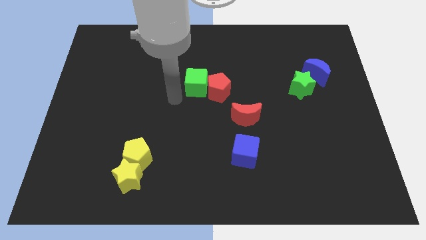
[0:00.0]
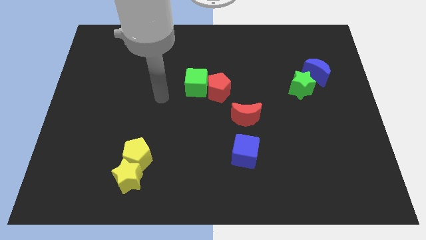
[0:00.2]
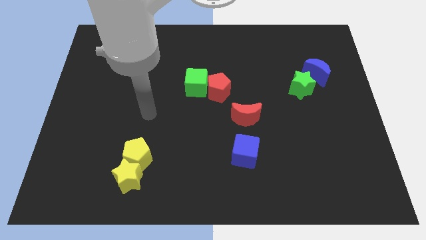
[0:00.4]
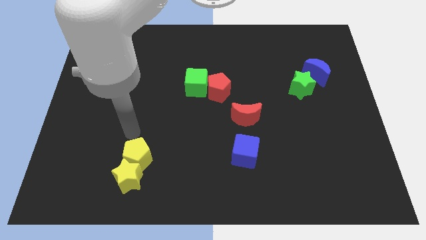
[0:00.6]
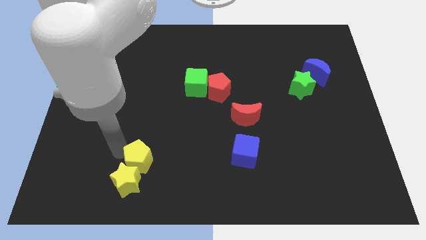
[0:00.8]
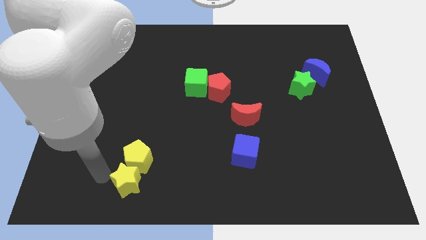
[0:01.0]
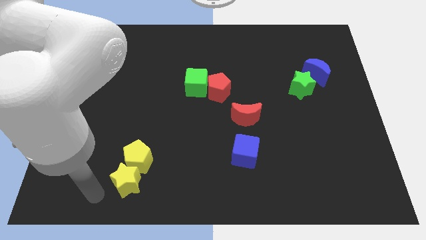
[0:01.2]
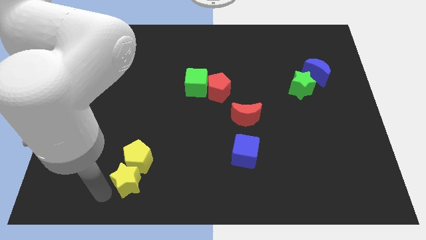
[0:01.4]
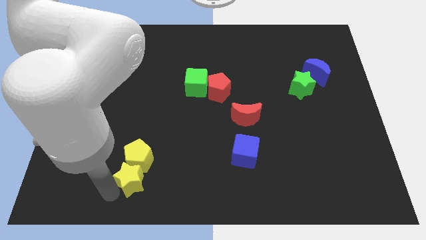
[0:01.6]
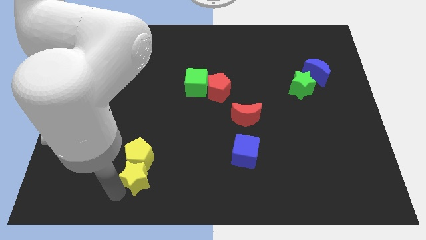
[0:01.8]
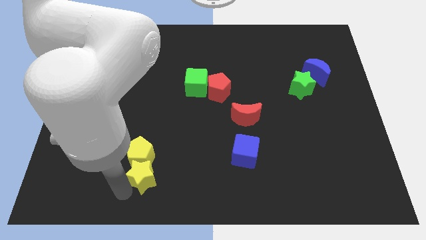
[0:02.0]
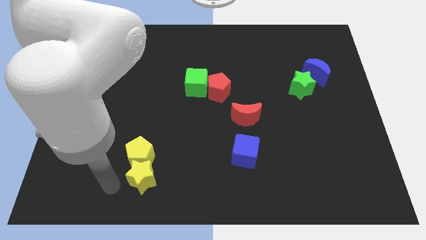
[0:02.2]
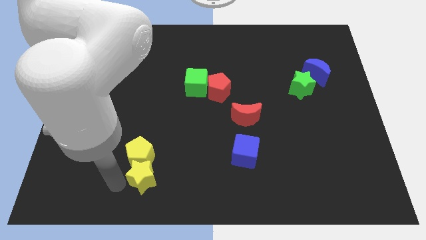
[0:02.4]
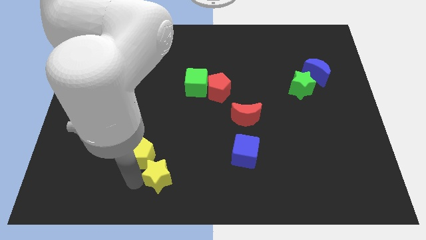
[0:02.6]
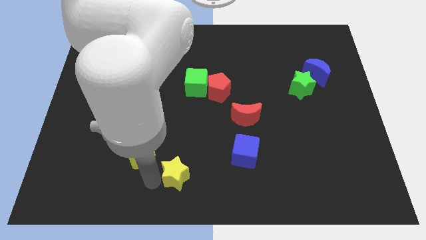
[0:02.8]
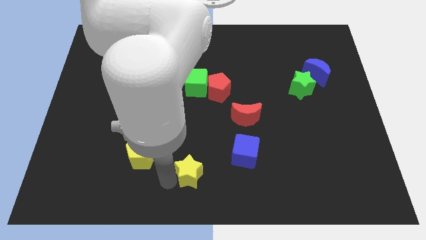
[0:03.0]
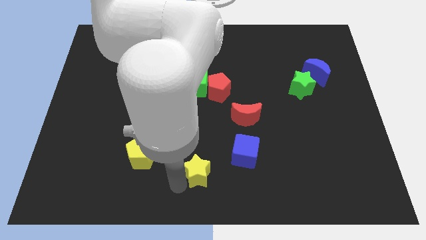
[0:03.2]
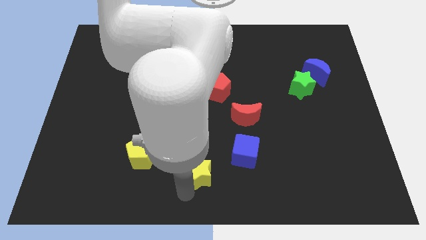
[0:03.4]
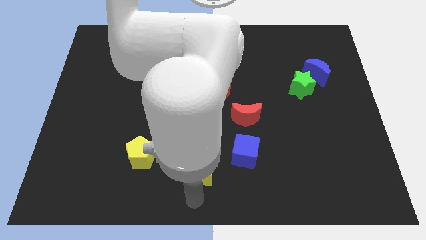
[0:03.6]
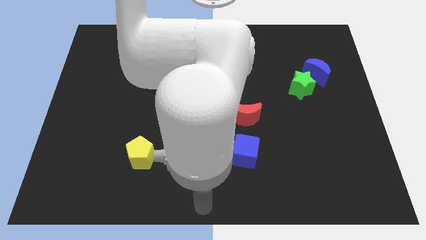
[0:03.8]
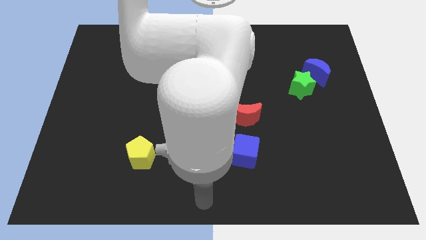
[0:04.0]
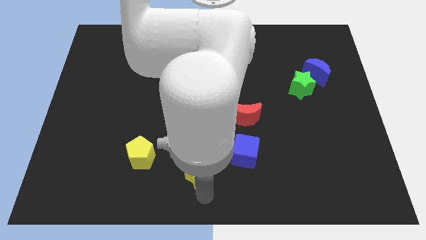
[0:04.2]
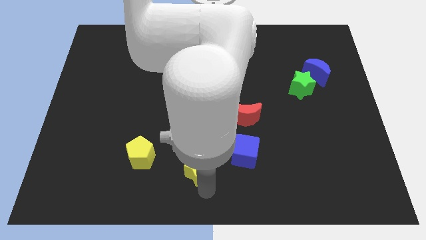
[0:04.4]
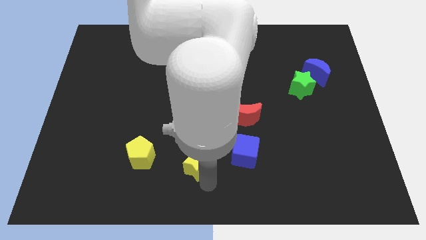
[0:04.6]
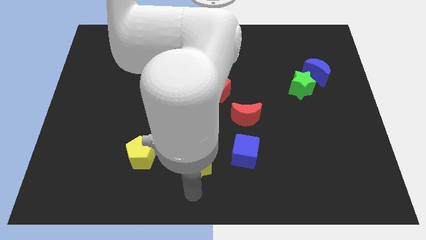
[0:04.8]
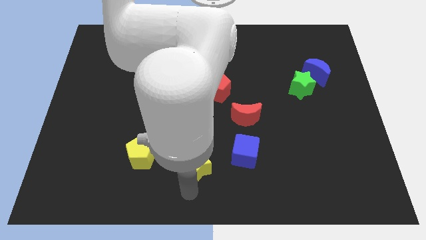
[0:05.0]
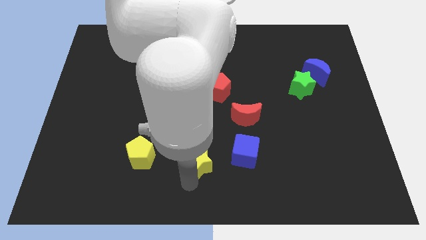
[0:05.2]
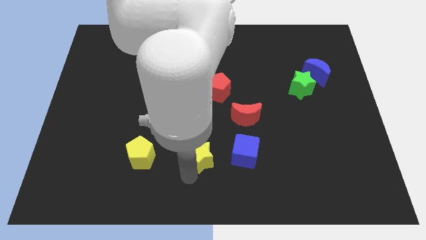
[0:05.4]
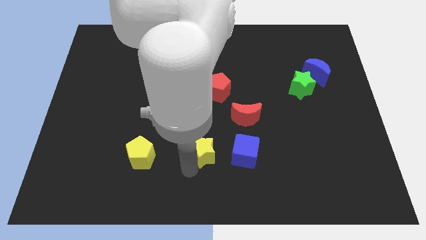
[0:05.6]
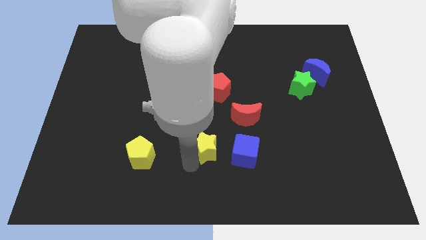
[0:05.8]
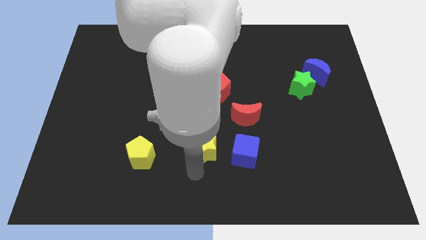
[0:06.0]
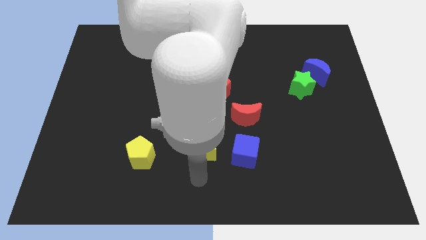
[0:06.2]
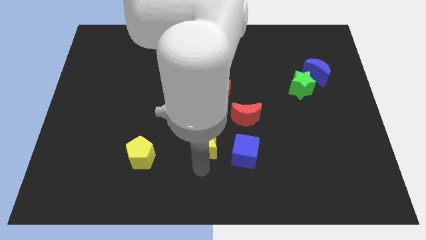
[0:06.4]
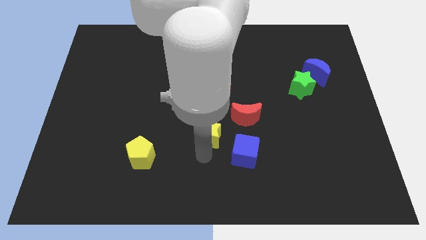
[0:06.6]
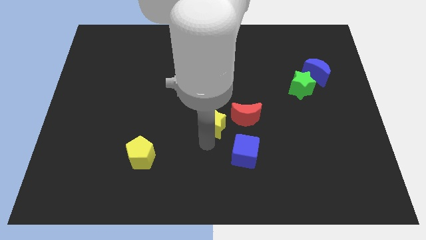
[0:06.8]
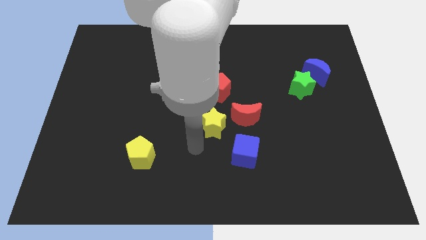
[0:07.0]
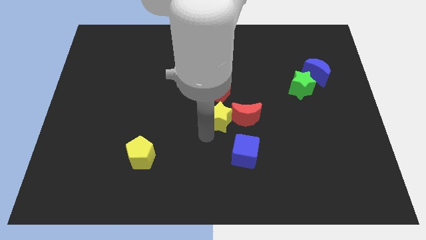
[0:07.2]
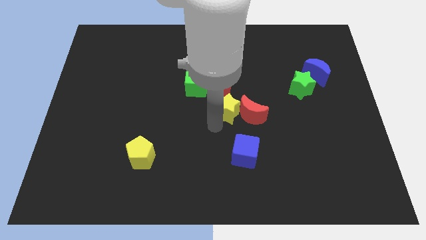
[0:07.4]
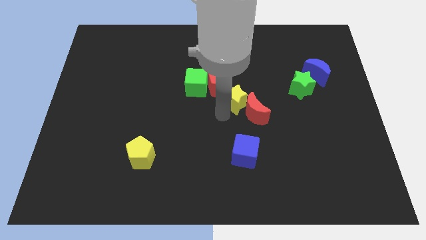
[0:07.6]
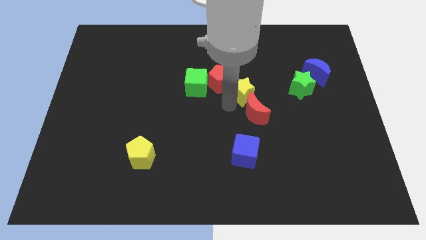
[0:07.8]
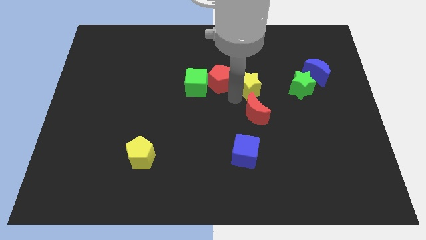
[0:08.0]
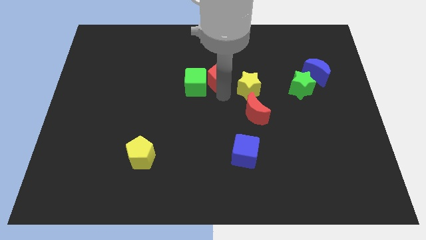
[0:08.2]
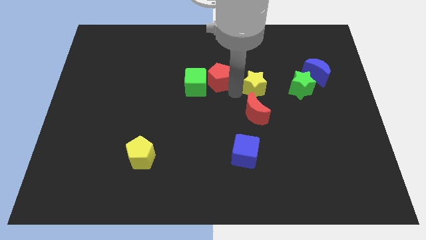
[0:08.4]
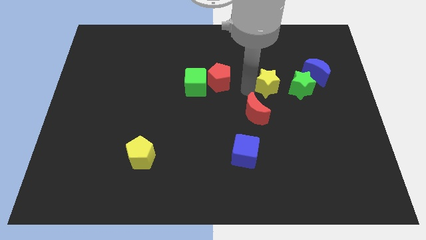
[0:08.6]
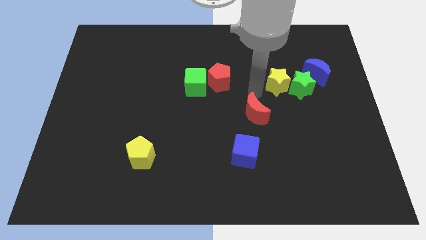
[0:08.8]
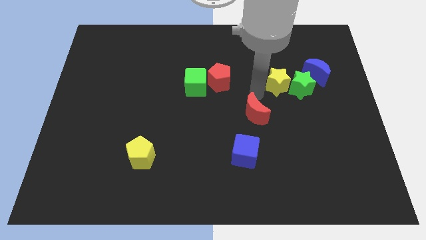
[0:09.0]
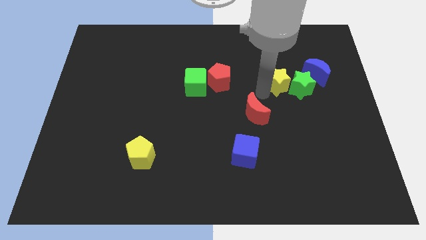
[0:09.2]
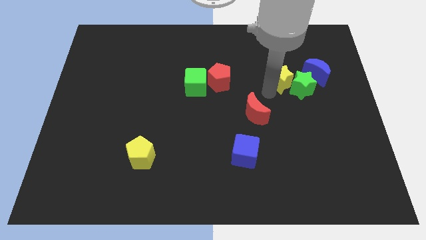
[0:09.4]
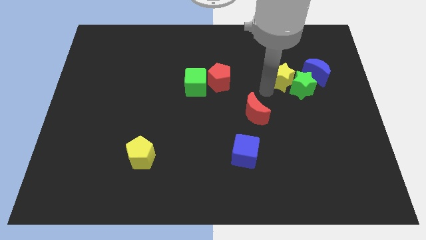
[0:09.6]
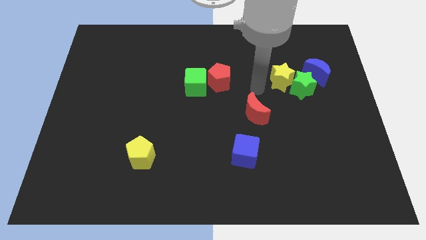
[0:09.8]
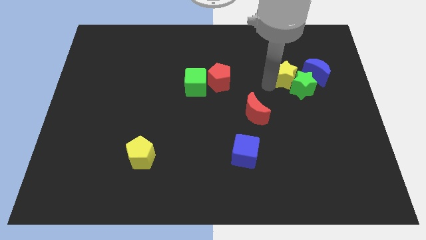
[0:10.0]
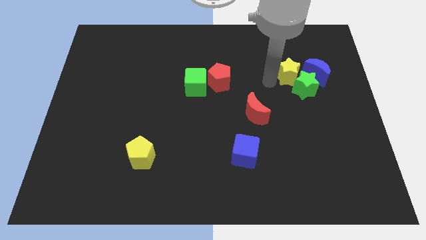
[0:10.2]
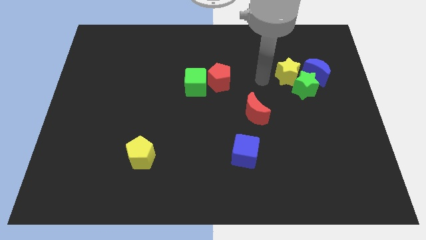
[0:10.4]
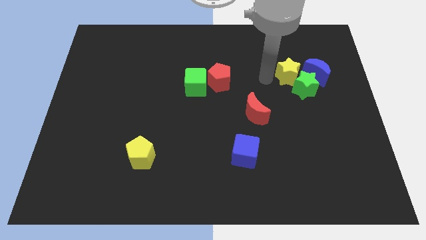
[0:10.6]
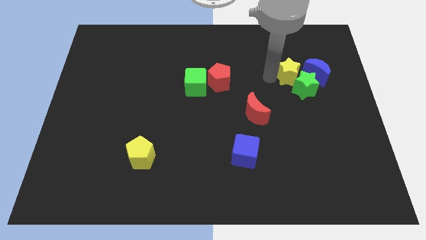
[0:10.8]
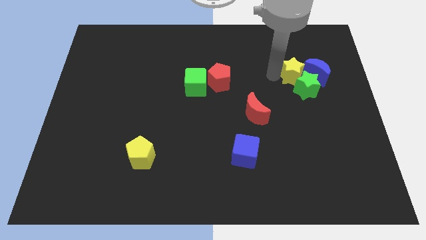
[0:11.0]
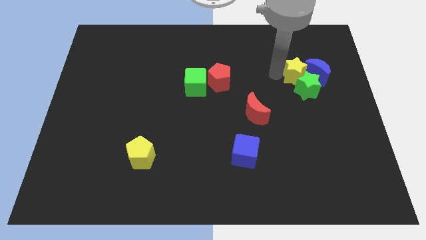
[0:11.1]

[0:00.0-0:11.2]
slide the yellow star close to the blue moon

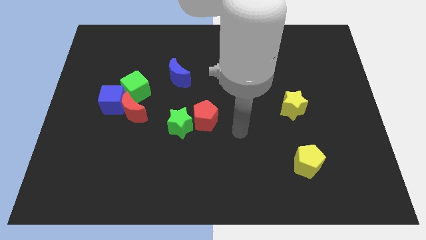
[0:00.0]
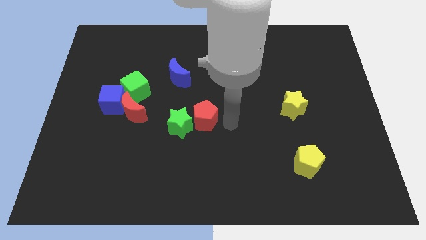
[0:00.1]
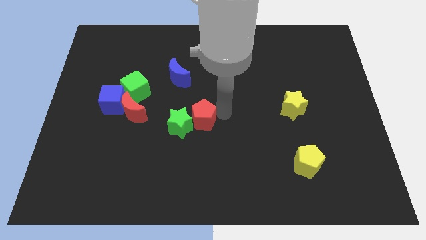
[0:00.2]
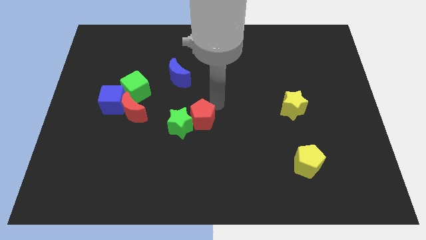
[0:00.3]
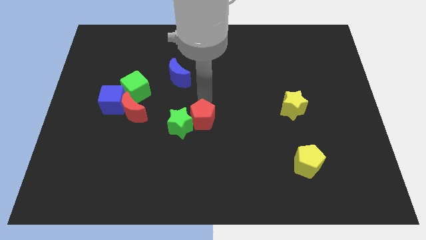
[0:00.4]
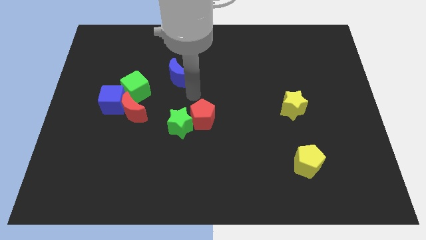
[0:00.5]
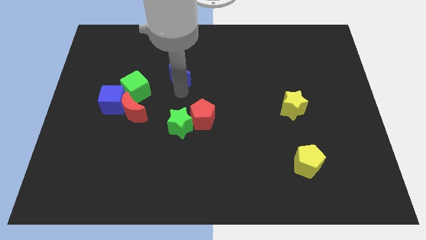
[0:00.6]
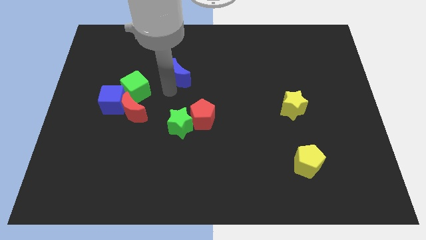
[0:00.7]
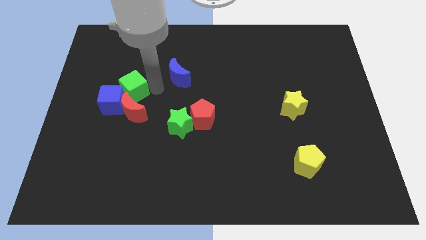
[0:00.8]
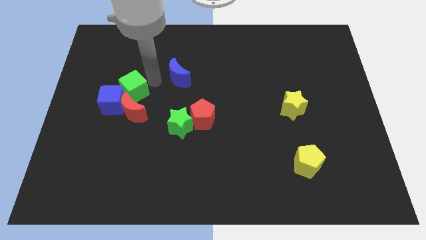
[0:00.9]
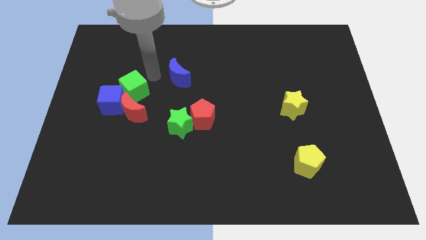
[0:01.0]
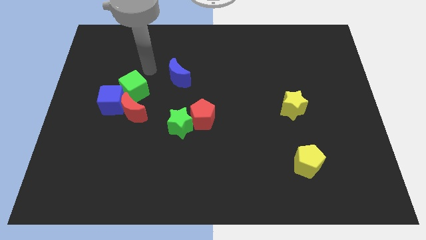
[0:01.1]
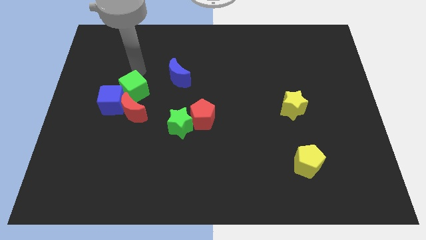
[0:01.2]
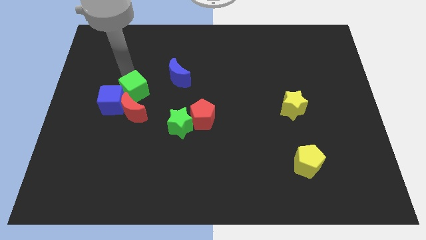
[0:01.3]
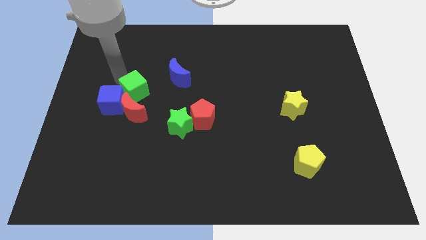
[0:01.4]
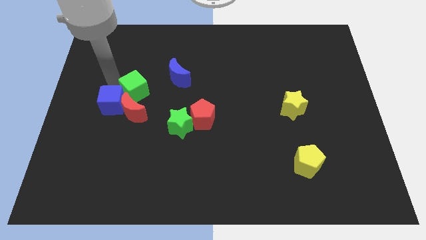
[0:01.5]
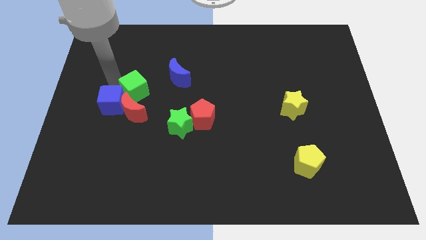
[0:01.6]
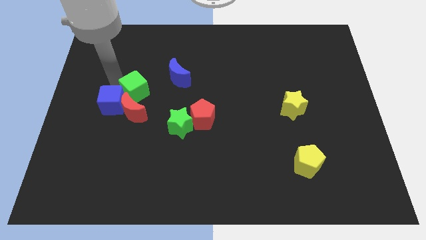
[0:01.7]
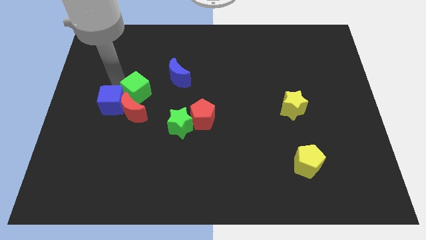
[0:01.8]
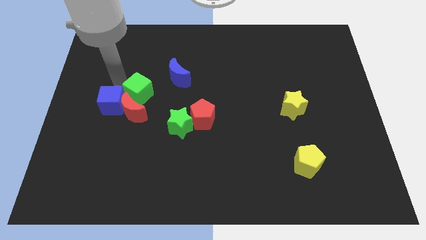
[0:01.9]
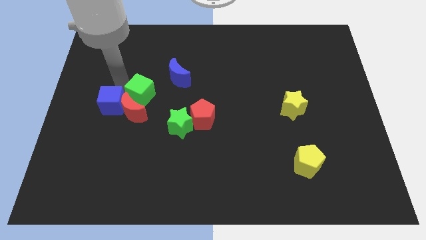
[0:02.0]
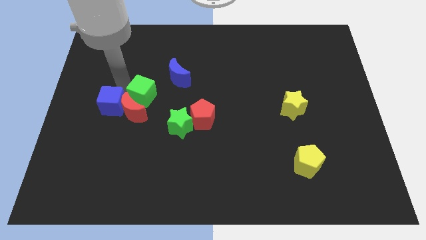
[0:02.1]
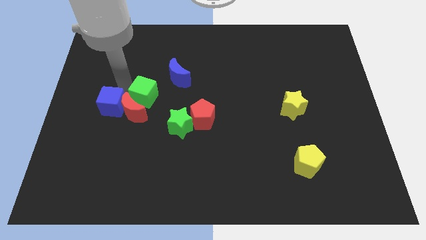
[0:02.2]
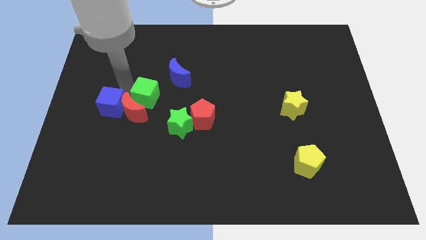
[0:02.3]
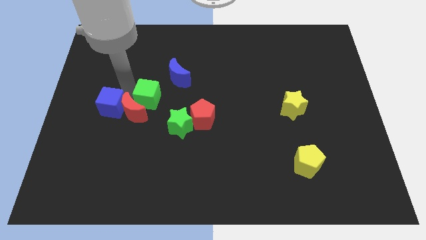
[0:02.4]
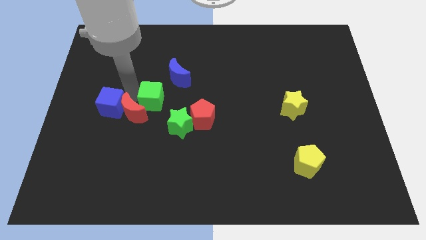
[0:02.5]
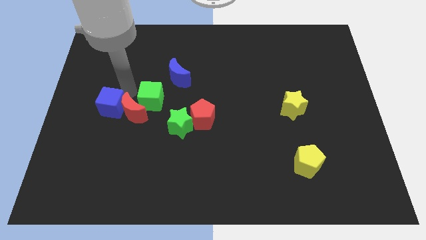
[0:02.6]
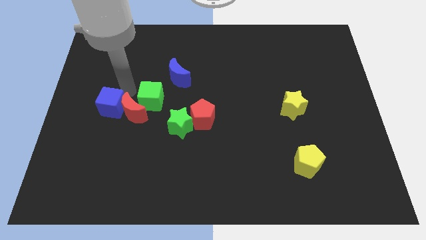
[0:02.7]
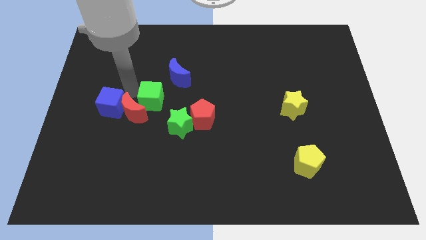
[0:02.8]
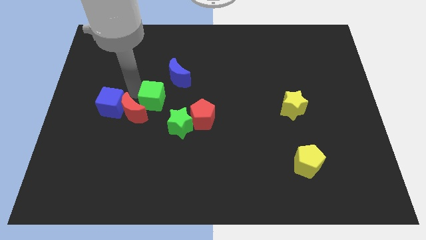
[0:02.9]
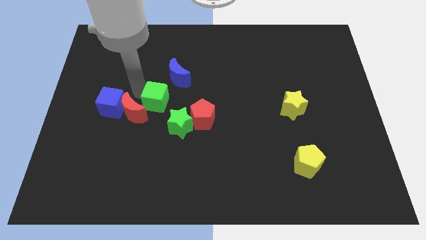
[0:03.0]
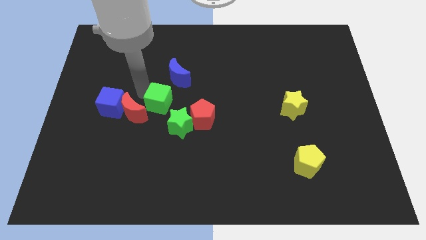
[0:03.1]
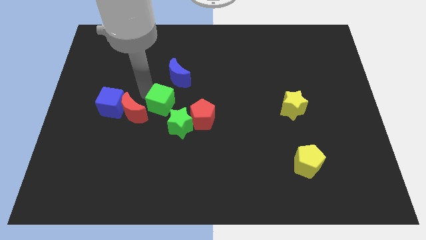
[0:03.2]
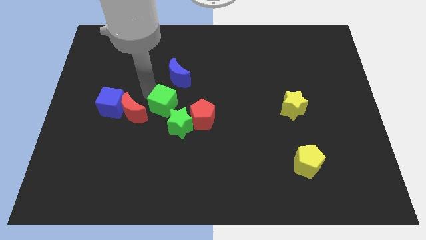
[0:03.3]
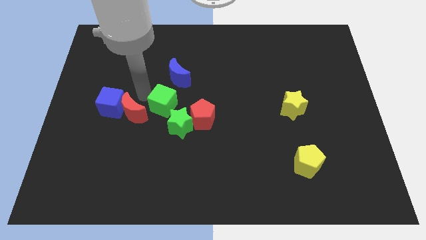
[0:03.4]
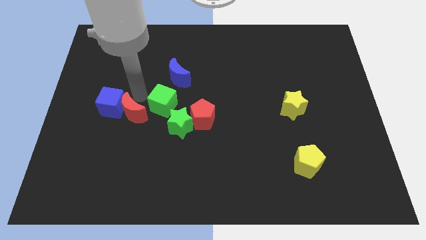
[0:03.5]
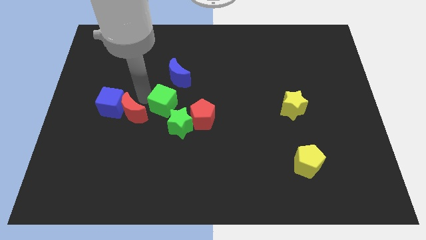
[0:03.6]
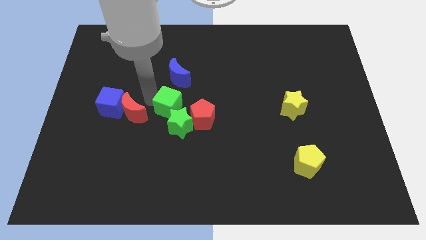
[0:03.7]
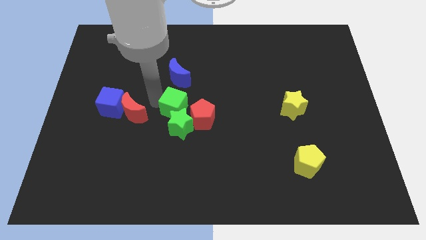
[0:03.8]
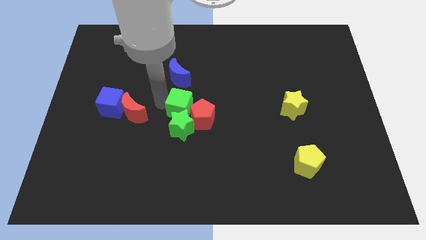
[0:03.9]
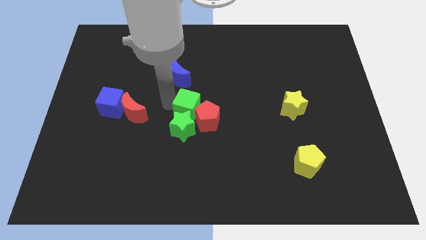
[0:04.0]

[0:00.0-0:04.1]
move the green cube to the red pentagon
